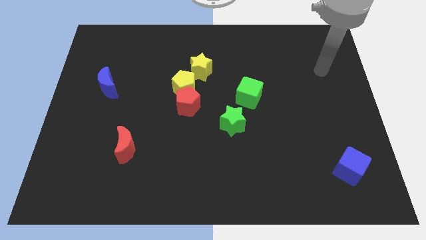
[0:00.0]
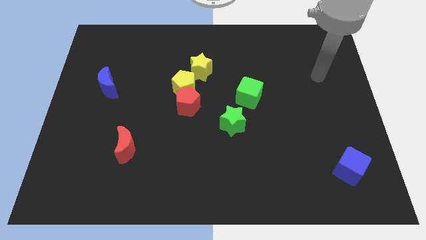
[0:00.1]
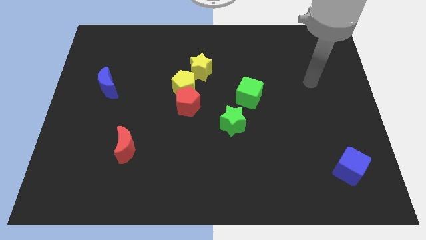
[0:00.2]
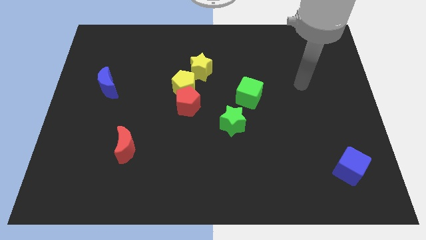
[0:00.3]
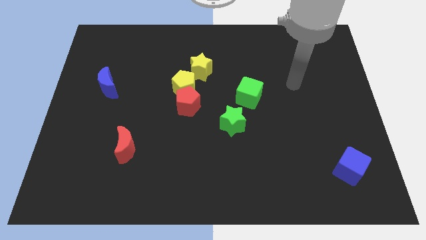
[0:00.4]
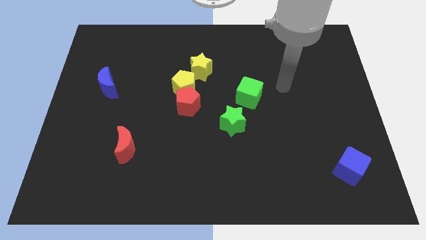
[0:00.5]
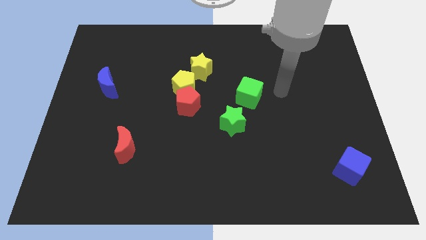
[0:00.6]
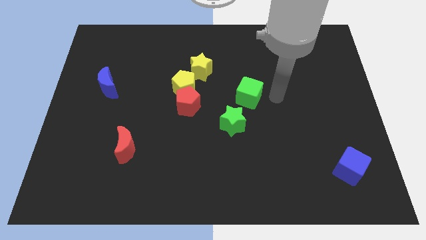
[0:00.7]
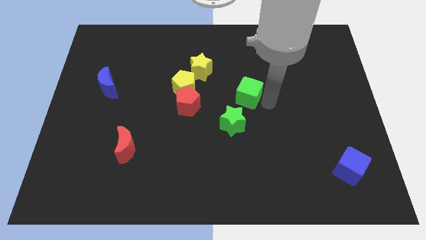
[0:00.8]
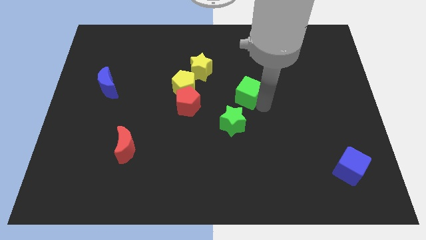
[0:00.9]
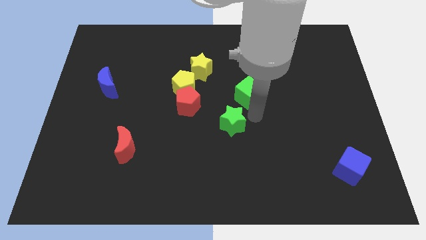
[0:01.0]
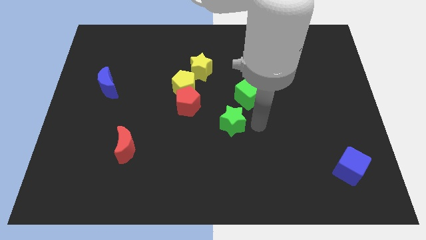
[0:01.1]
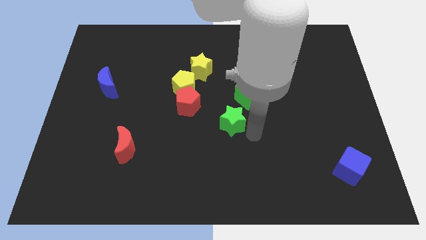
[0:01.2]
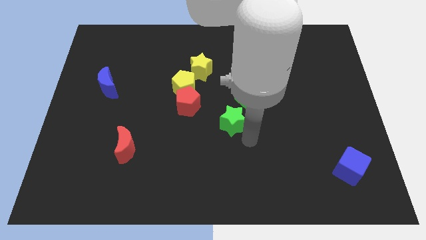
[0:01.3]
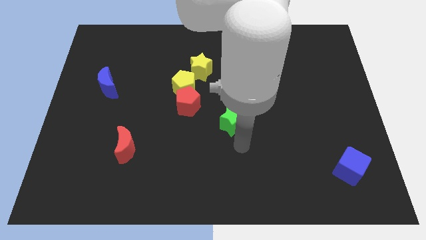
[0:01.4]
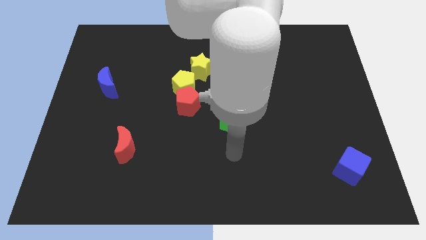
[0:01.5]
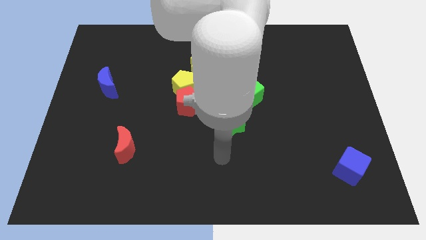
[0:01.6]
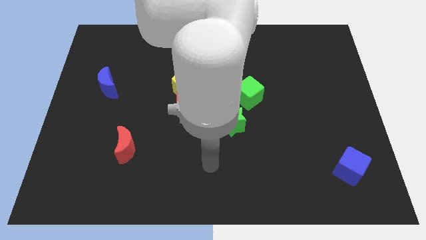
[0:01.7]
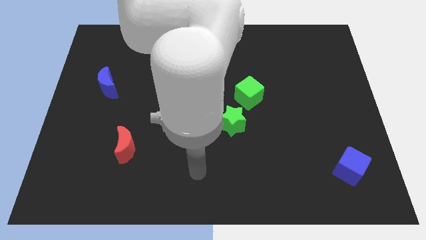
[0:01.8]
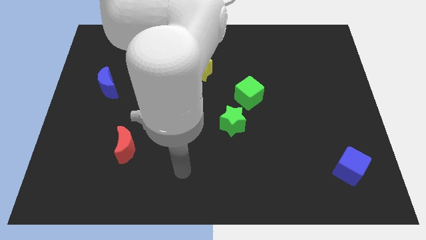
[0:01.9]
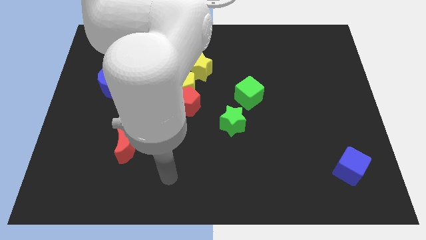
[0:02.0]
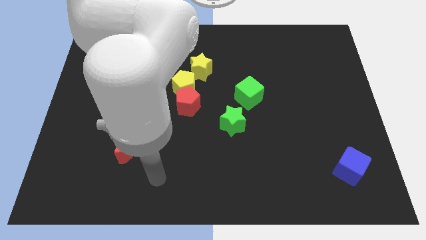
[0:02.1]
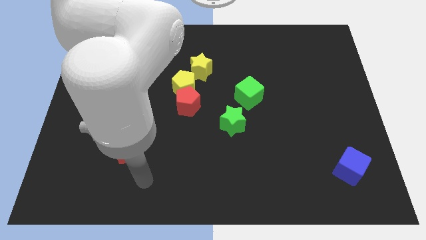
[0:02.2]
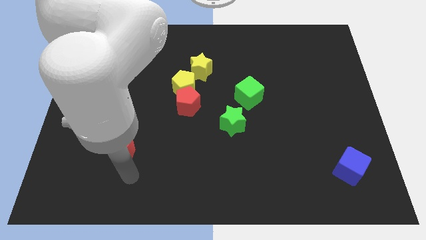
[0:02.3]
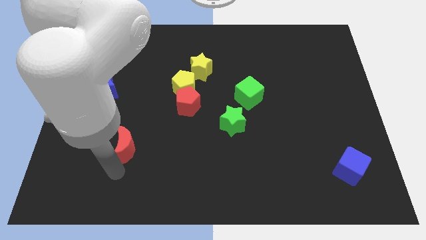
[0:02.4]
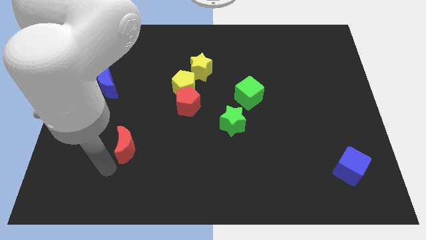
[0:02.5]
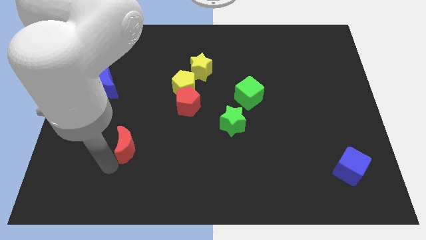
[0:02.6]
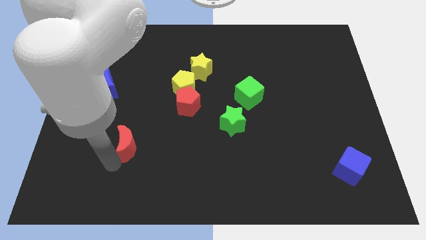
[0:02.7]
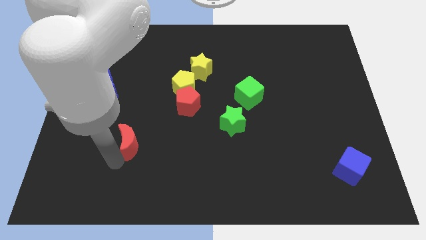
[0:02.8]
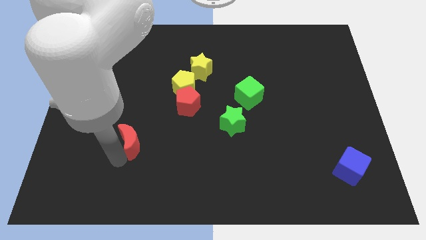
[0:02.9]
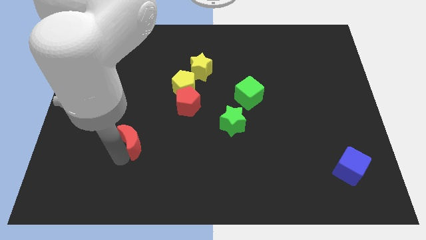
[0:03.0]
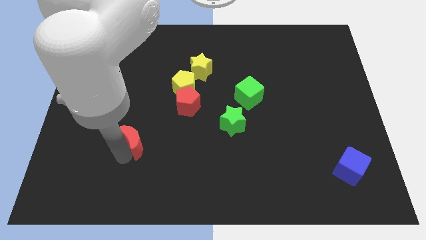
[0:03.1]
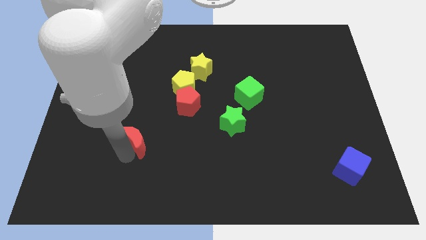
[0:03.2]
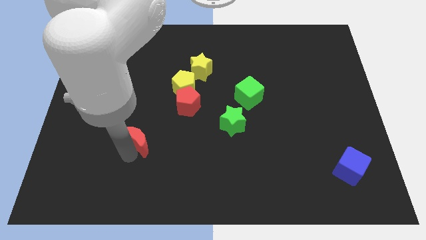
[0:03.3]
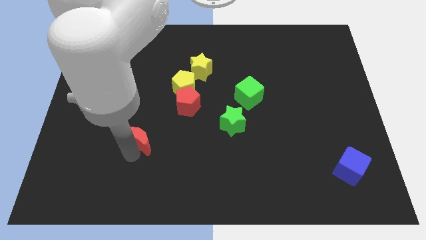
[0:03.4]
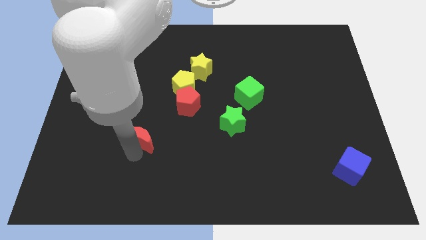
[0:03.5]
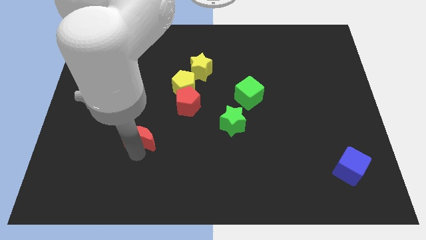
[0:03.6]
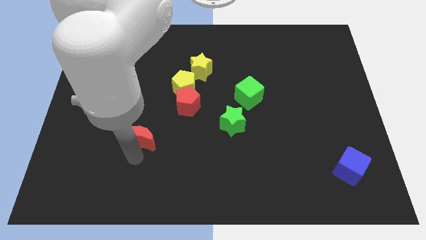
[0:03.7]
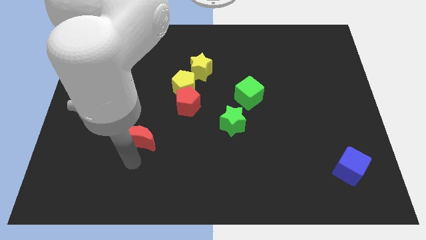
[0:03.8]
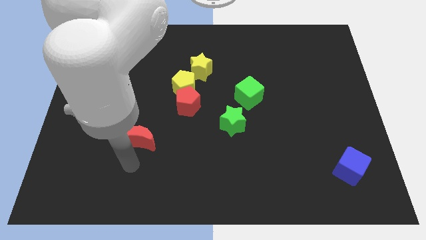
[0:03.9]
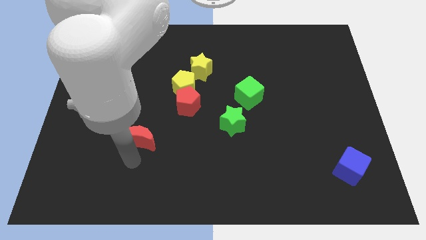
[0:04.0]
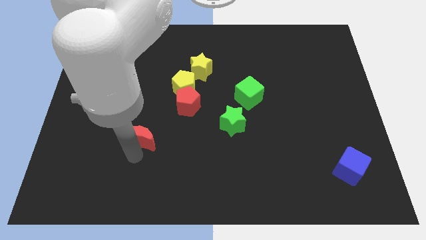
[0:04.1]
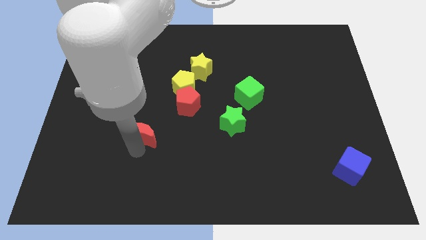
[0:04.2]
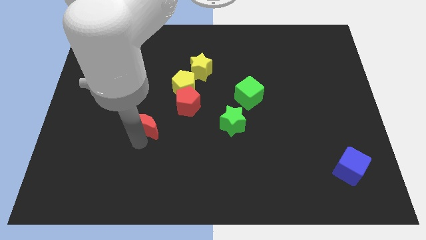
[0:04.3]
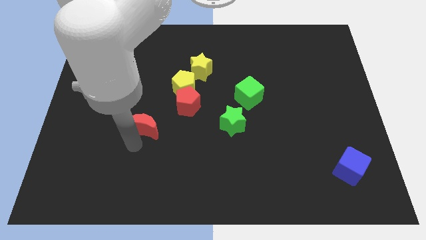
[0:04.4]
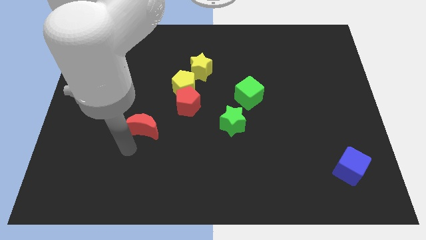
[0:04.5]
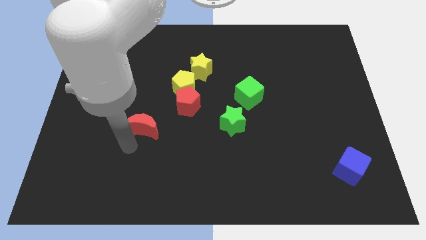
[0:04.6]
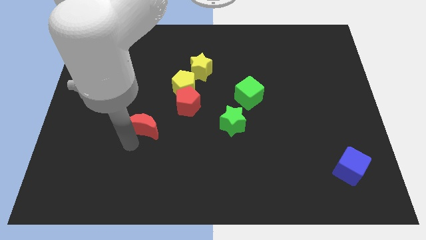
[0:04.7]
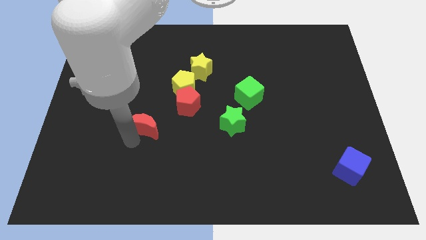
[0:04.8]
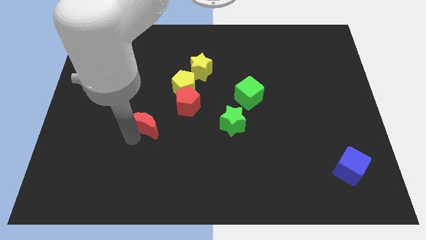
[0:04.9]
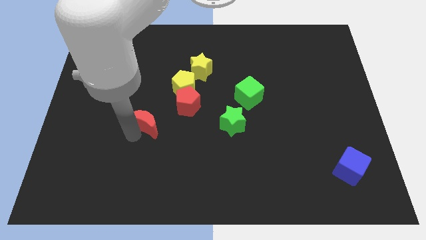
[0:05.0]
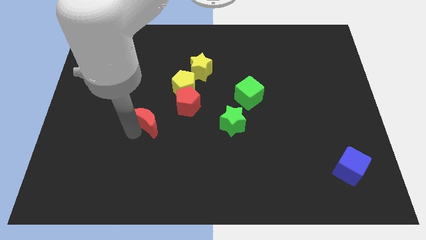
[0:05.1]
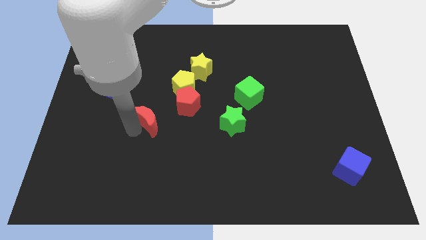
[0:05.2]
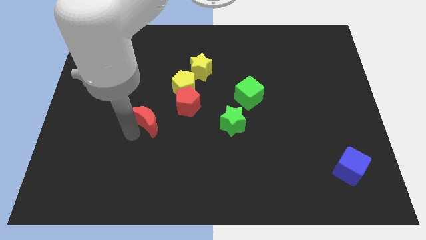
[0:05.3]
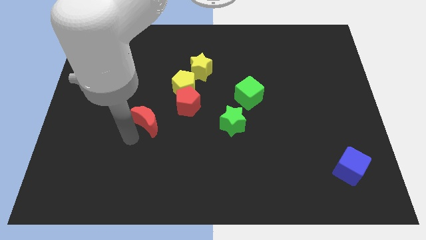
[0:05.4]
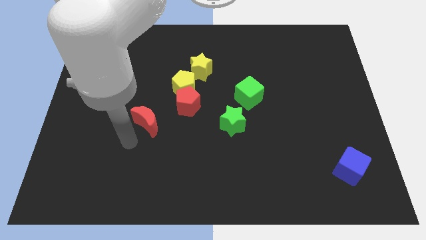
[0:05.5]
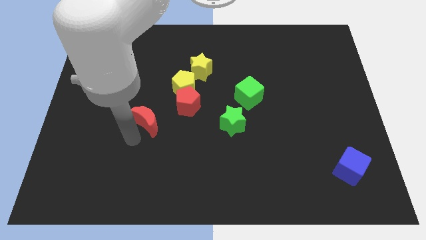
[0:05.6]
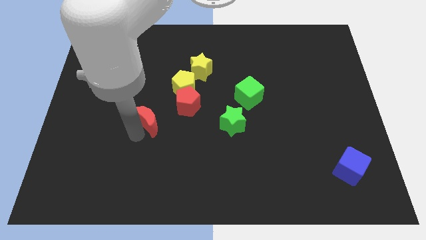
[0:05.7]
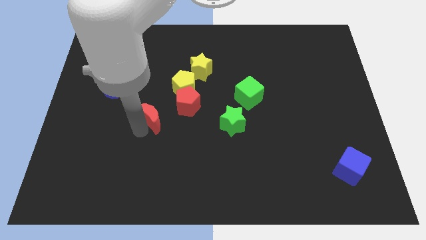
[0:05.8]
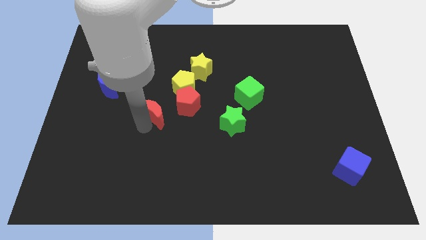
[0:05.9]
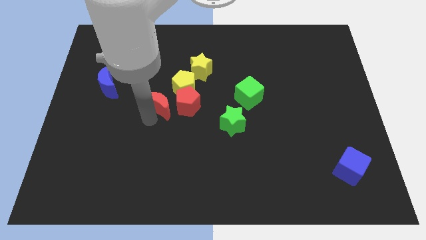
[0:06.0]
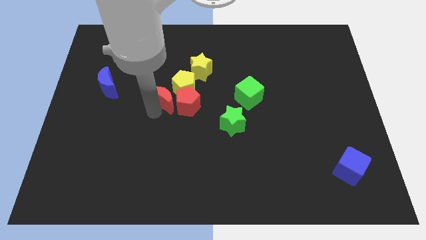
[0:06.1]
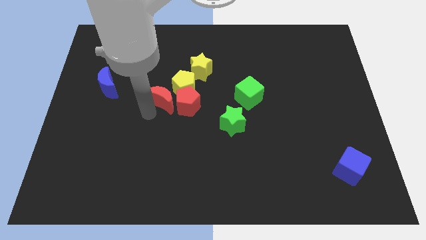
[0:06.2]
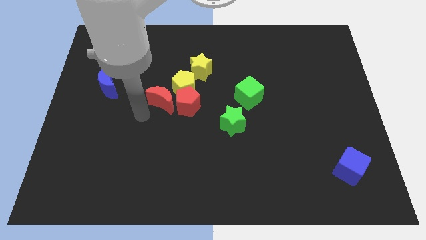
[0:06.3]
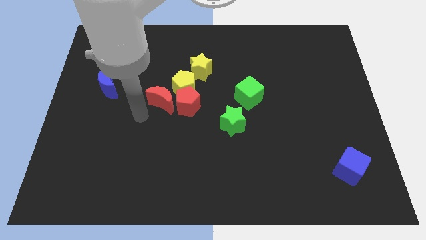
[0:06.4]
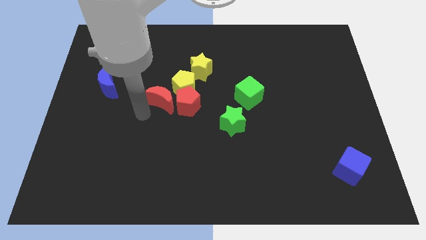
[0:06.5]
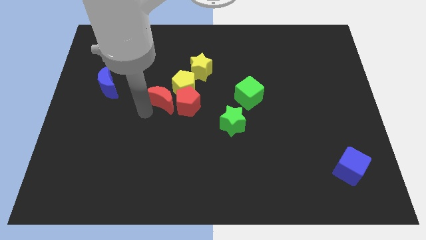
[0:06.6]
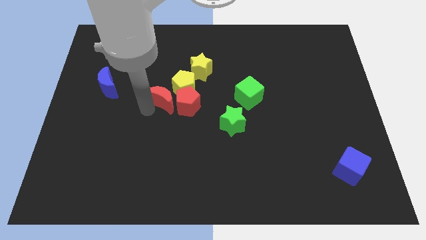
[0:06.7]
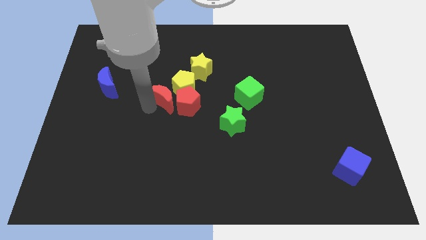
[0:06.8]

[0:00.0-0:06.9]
put the red moon close to the yellow pentagon
